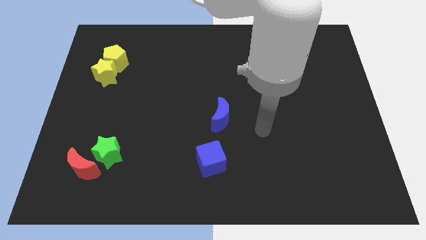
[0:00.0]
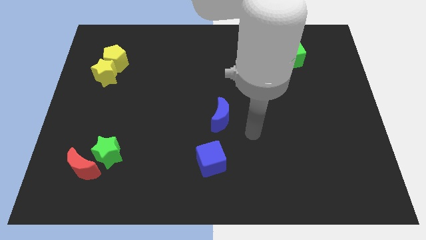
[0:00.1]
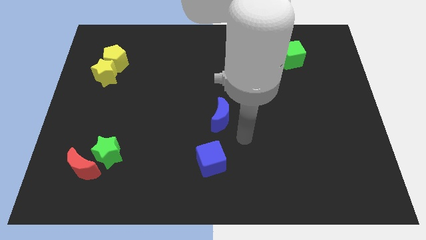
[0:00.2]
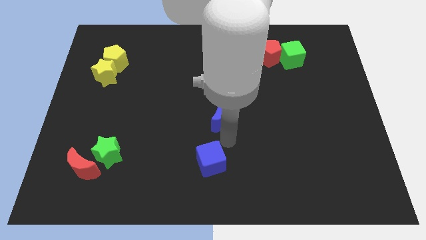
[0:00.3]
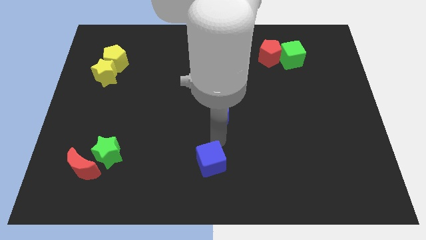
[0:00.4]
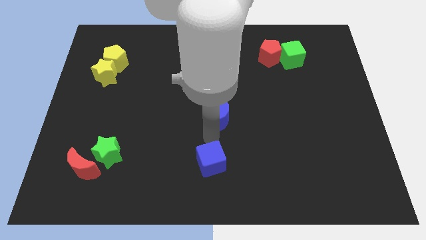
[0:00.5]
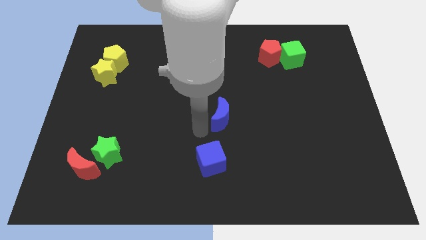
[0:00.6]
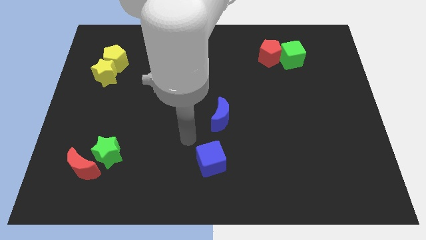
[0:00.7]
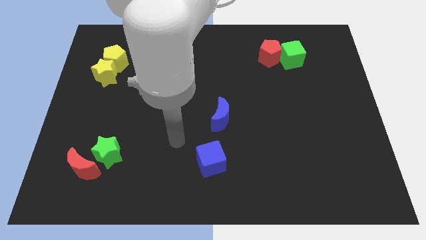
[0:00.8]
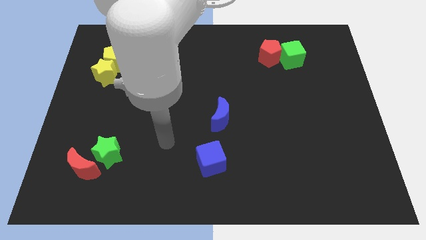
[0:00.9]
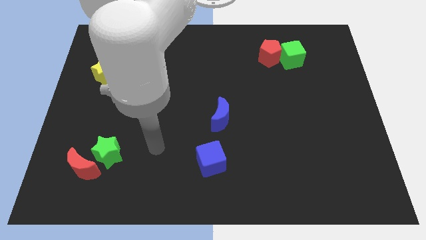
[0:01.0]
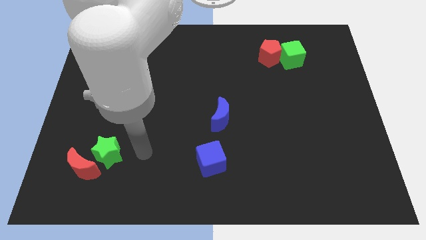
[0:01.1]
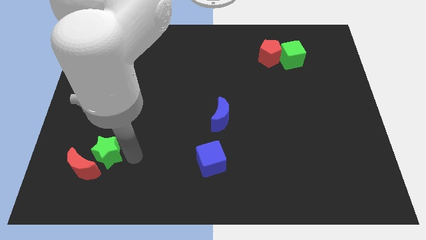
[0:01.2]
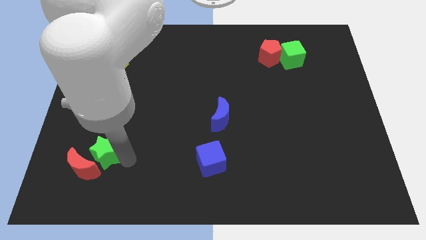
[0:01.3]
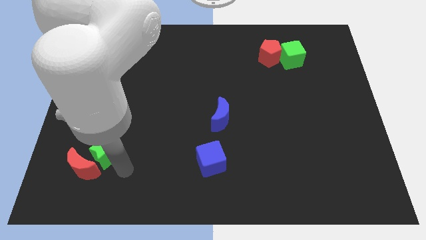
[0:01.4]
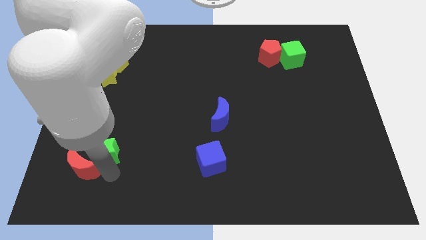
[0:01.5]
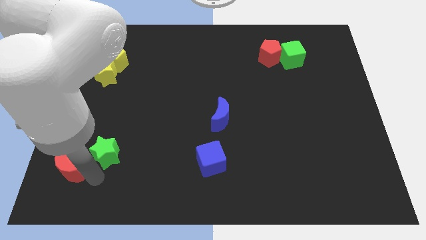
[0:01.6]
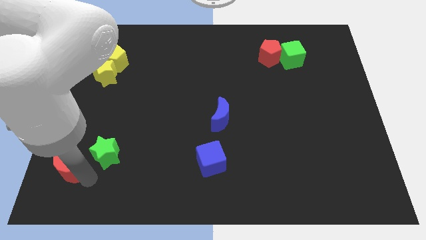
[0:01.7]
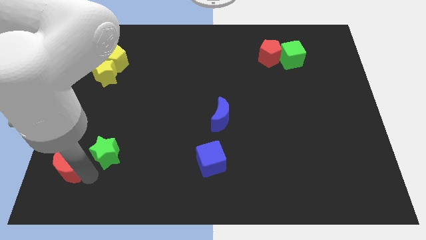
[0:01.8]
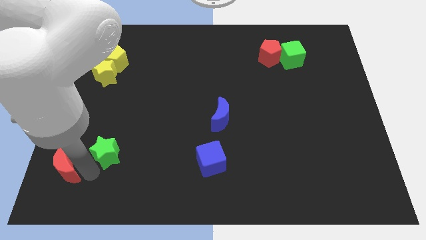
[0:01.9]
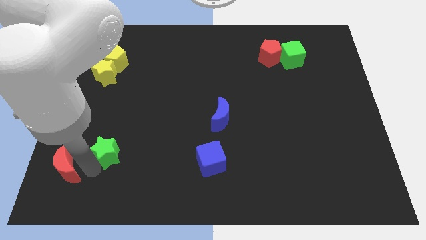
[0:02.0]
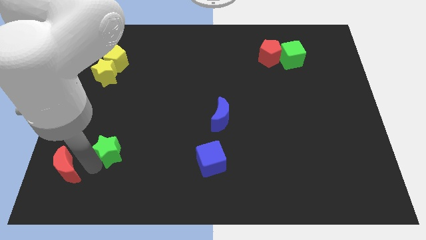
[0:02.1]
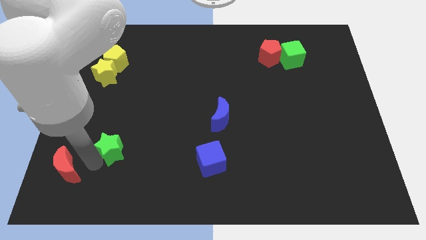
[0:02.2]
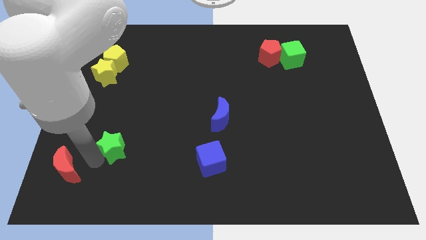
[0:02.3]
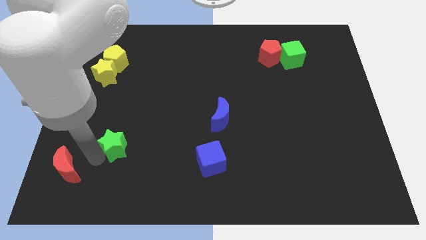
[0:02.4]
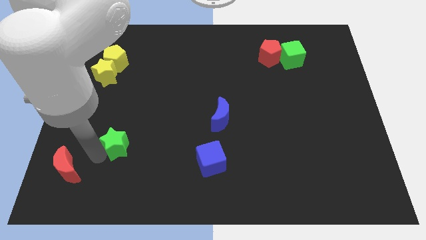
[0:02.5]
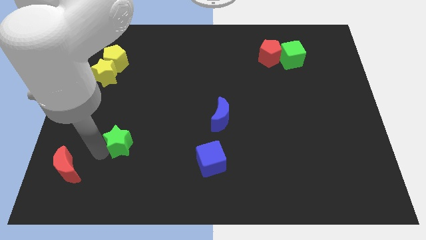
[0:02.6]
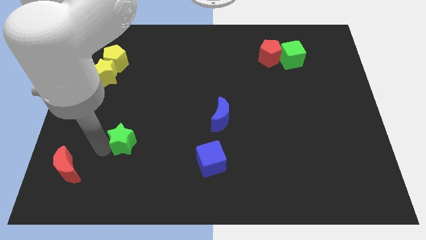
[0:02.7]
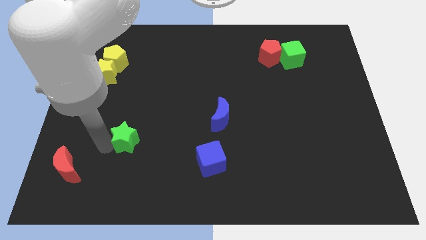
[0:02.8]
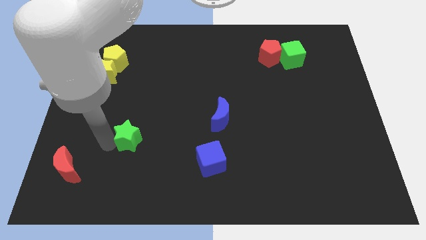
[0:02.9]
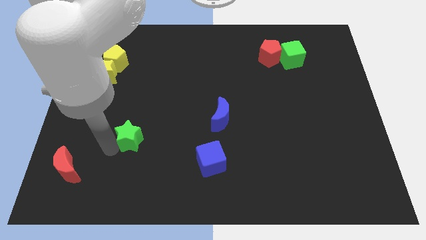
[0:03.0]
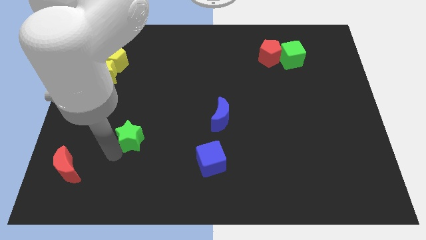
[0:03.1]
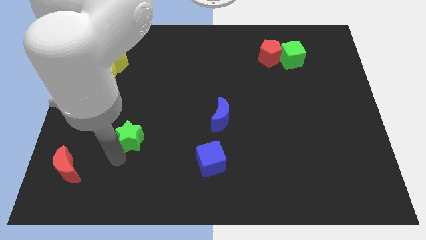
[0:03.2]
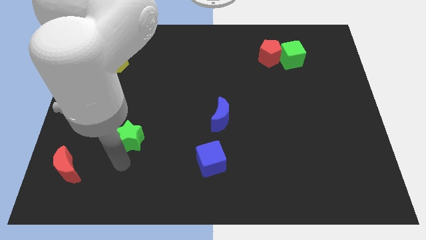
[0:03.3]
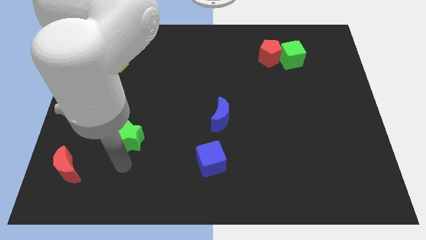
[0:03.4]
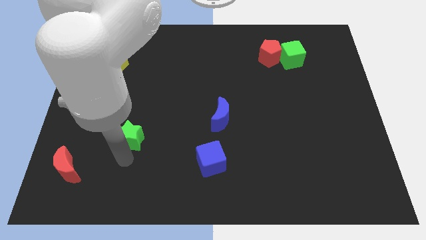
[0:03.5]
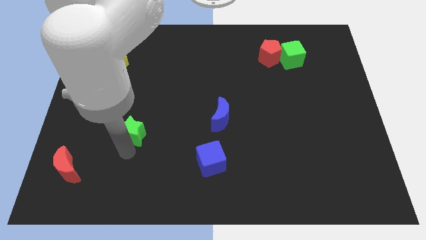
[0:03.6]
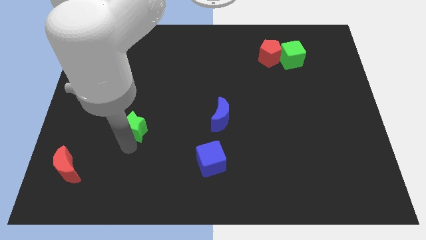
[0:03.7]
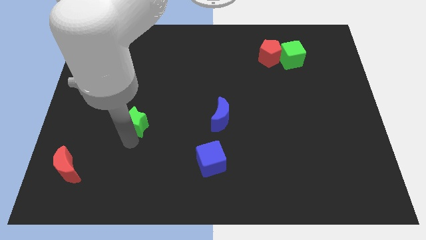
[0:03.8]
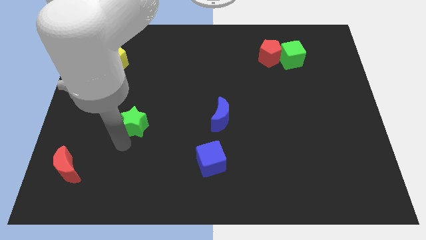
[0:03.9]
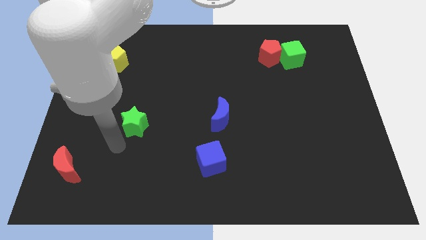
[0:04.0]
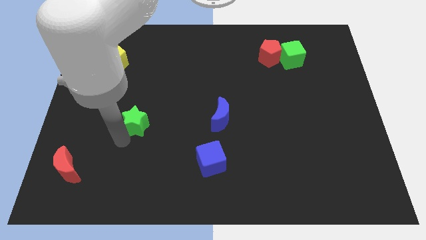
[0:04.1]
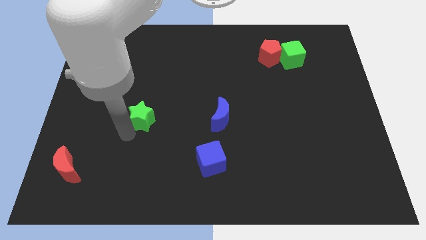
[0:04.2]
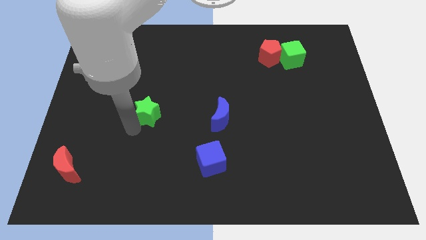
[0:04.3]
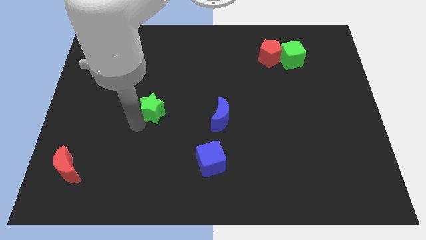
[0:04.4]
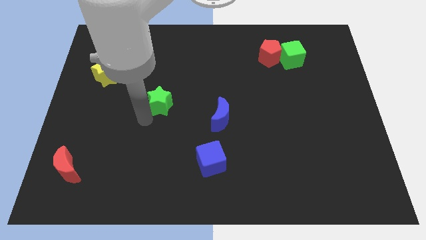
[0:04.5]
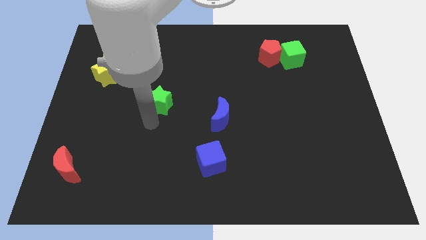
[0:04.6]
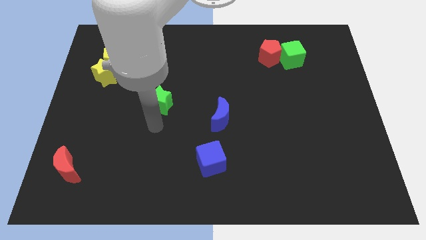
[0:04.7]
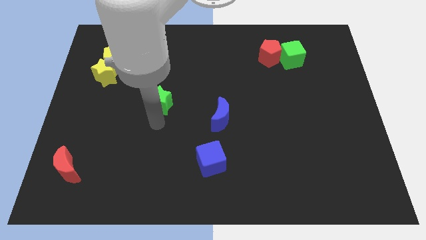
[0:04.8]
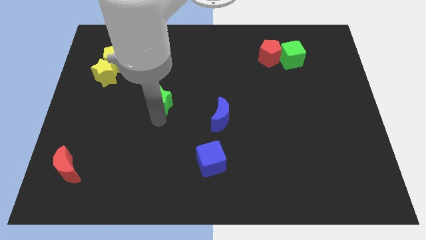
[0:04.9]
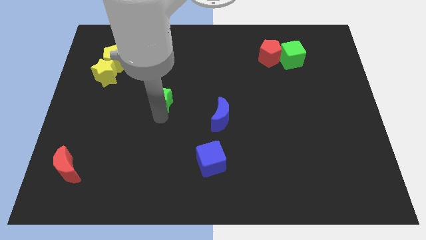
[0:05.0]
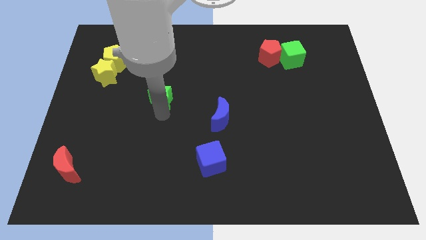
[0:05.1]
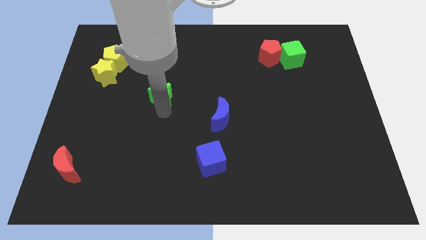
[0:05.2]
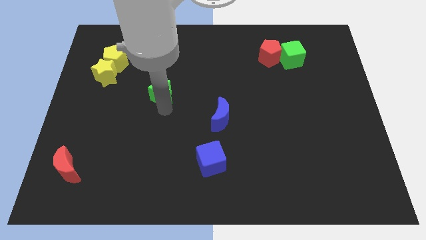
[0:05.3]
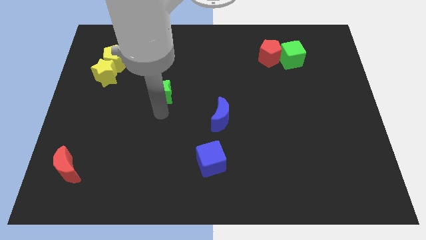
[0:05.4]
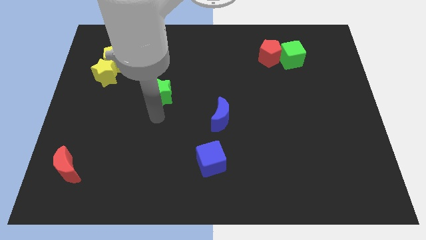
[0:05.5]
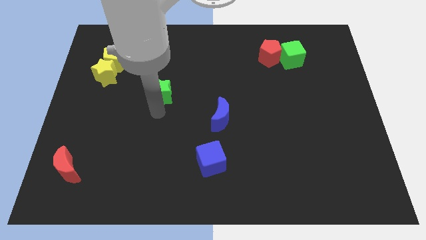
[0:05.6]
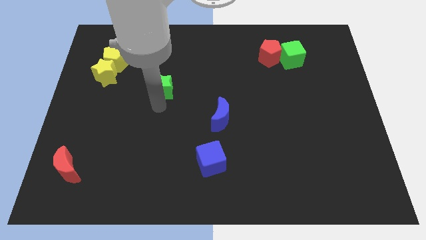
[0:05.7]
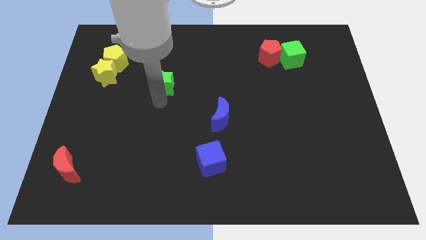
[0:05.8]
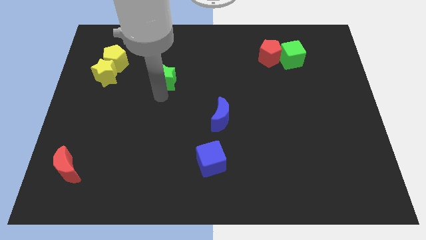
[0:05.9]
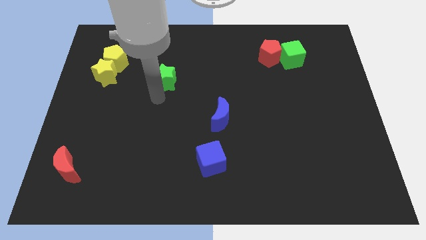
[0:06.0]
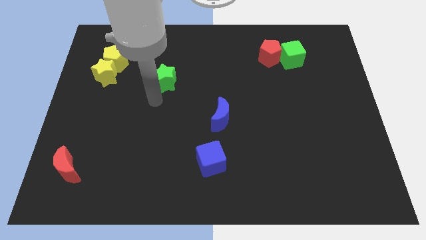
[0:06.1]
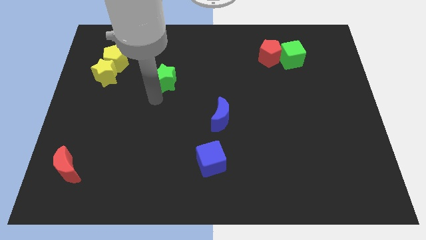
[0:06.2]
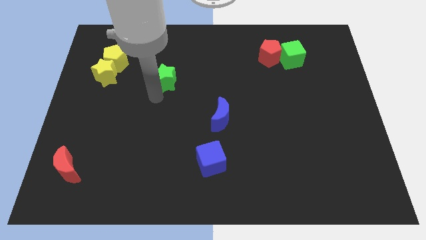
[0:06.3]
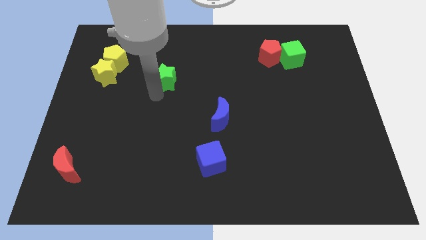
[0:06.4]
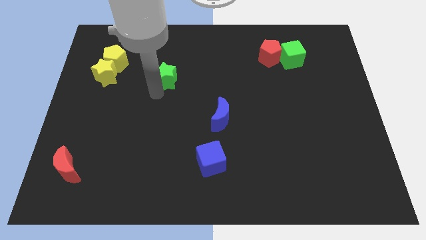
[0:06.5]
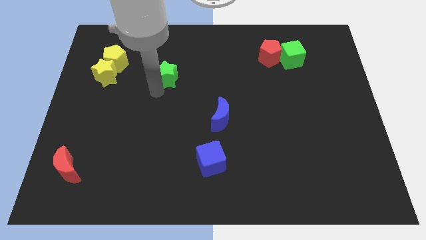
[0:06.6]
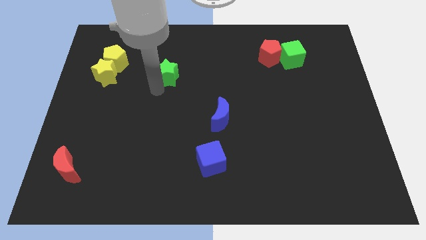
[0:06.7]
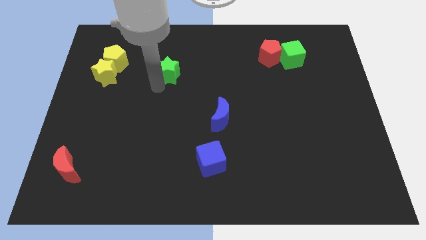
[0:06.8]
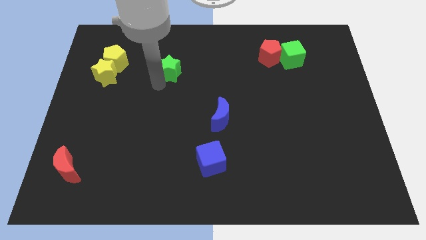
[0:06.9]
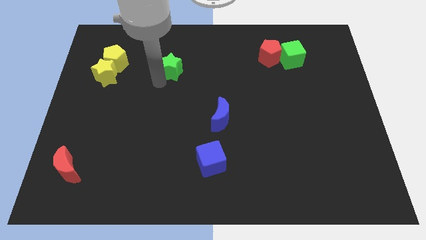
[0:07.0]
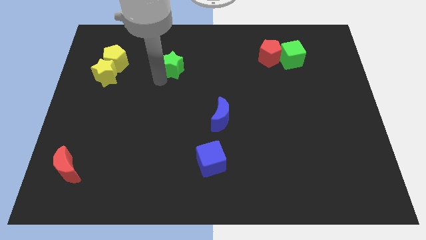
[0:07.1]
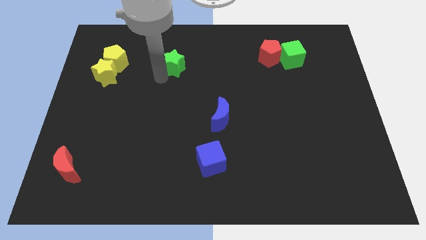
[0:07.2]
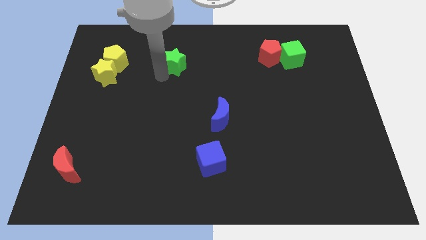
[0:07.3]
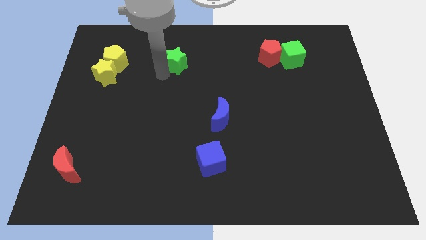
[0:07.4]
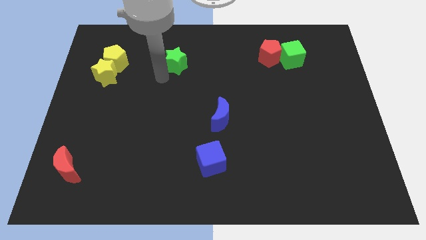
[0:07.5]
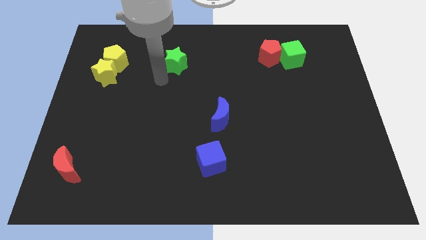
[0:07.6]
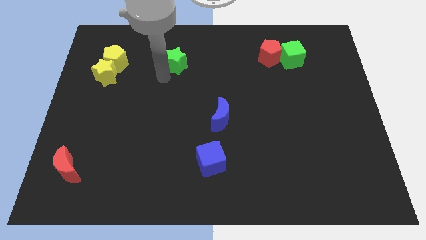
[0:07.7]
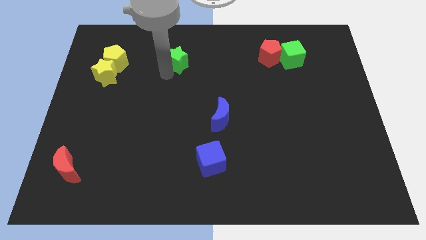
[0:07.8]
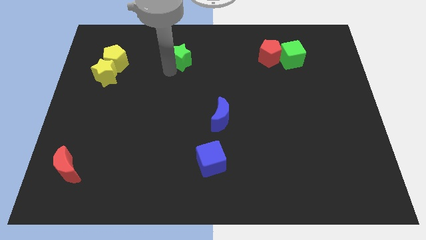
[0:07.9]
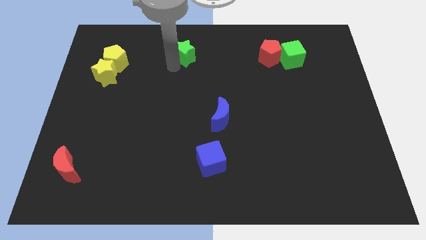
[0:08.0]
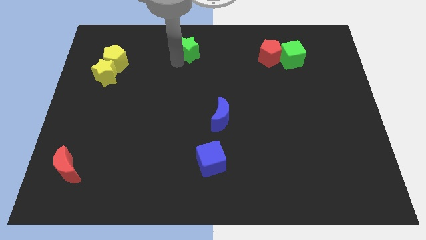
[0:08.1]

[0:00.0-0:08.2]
slide the green star to the towards your base
